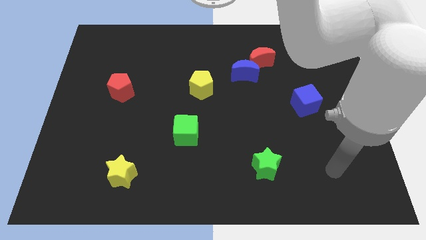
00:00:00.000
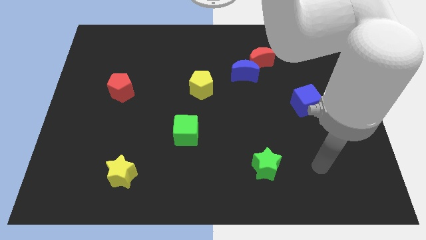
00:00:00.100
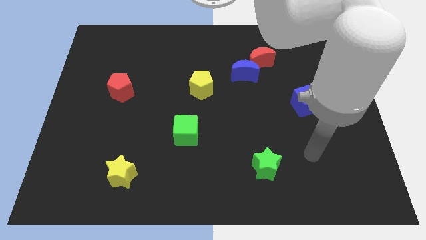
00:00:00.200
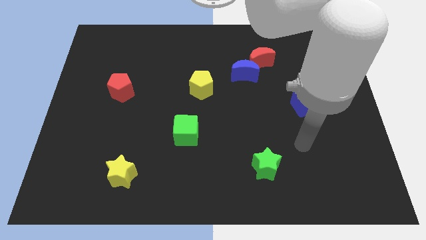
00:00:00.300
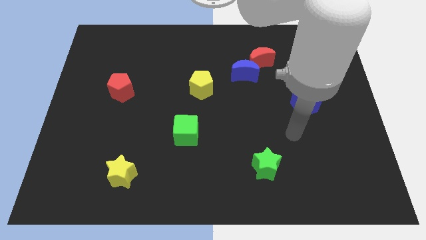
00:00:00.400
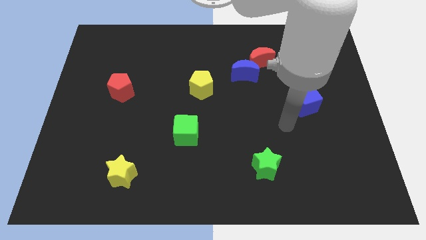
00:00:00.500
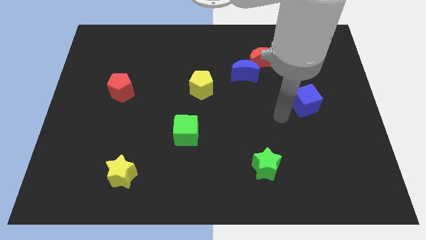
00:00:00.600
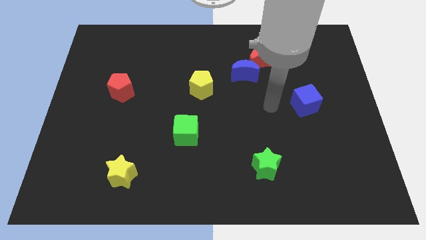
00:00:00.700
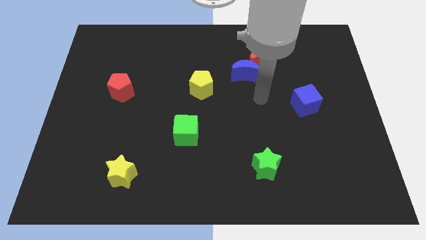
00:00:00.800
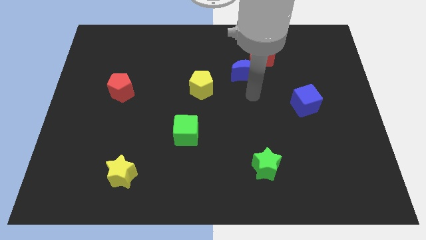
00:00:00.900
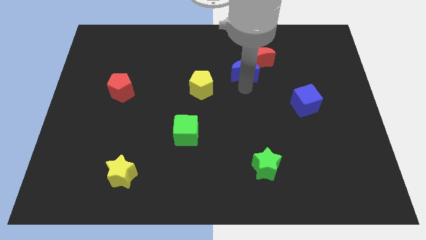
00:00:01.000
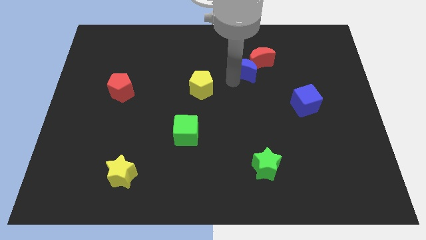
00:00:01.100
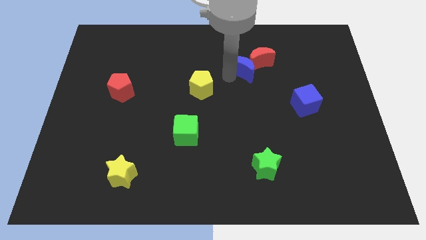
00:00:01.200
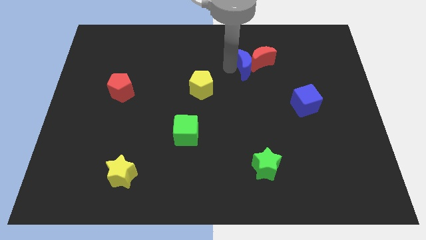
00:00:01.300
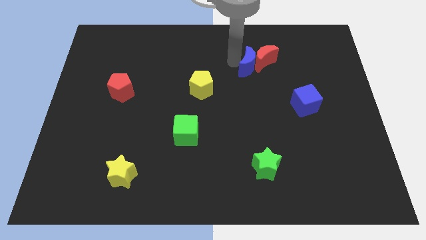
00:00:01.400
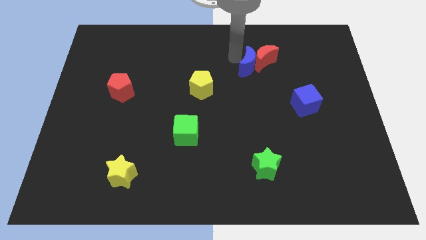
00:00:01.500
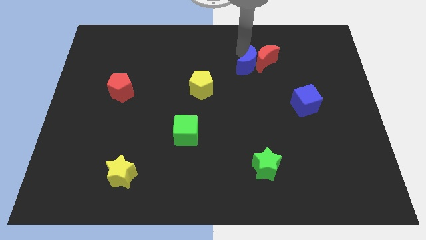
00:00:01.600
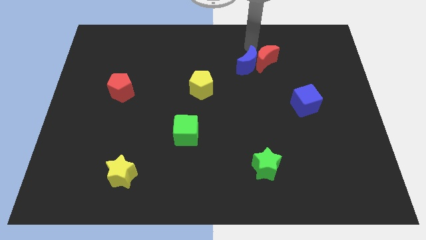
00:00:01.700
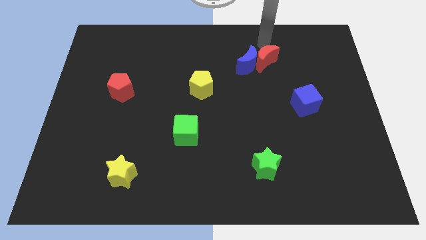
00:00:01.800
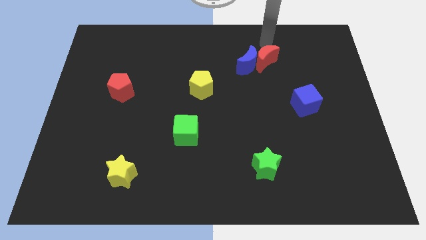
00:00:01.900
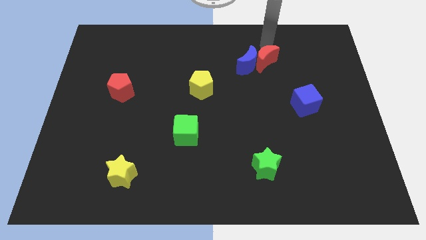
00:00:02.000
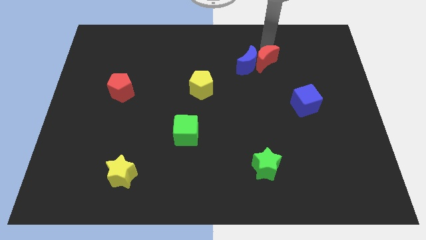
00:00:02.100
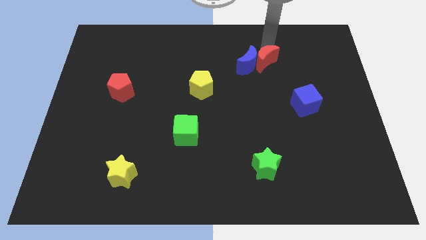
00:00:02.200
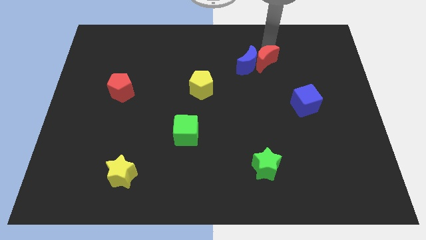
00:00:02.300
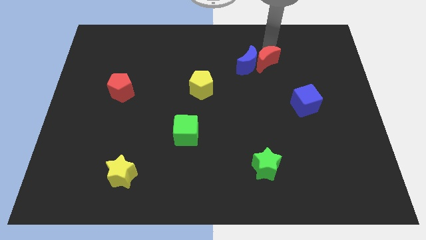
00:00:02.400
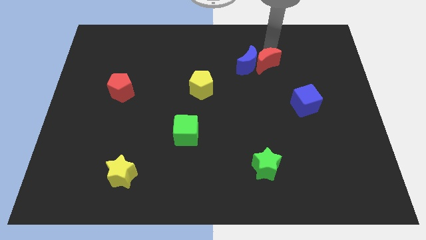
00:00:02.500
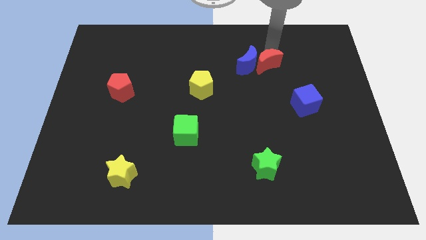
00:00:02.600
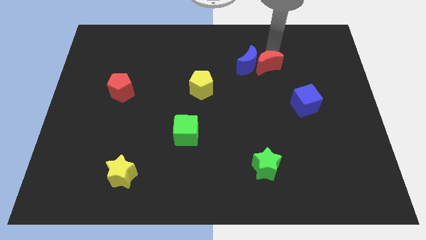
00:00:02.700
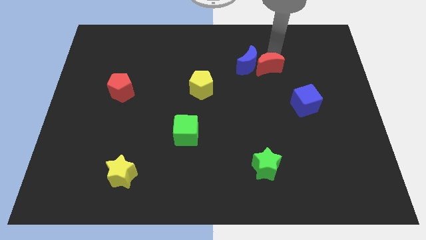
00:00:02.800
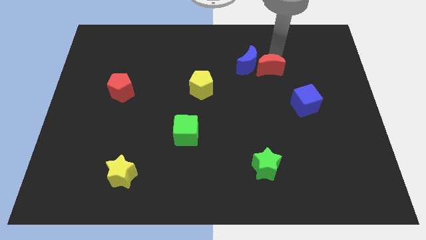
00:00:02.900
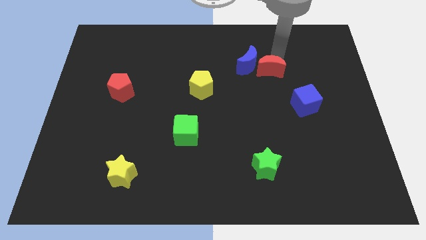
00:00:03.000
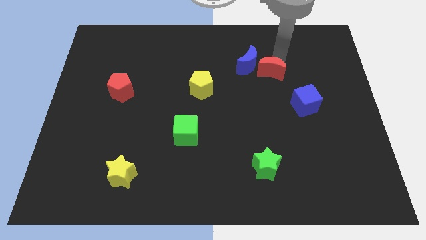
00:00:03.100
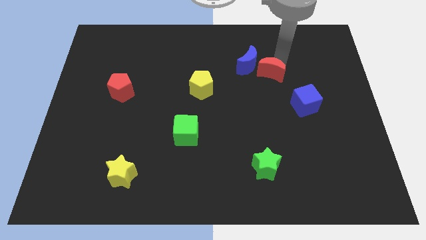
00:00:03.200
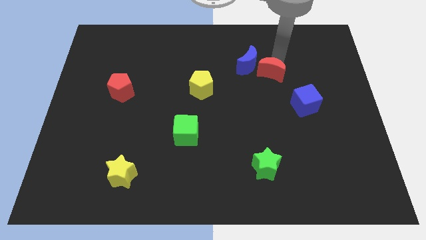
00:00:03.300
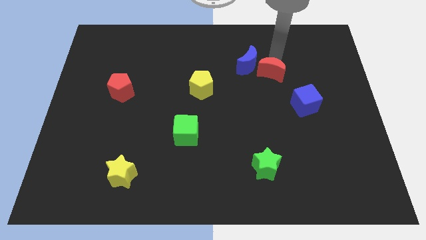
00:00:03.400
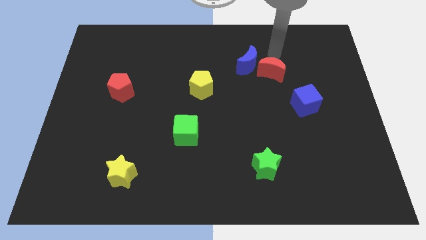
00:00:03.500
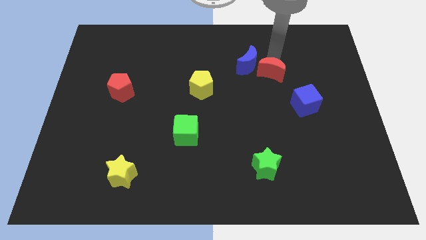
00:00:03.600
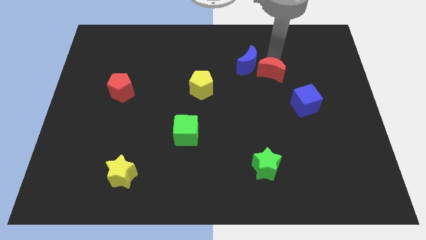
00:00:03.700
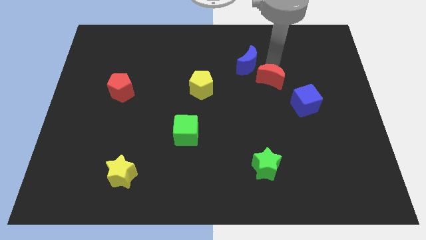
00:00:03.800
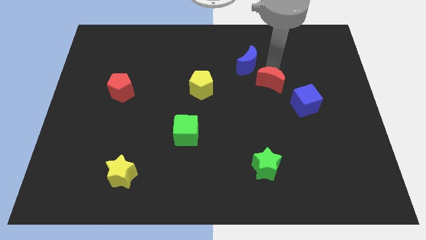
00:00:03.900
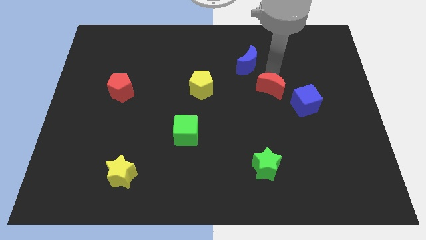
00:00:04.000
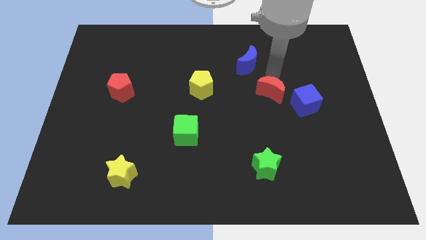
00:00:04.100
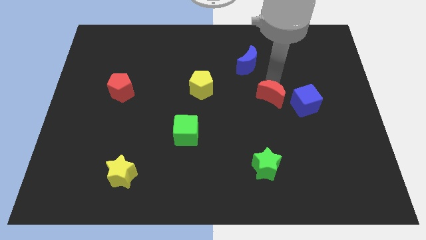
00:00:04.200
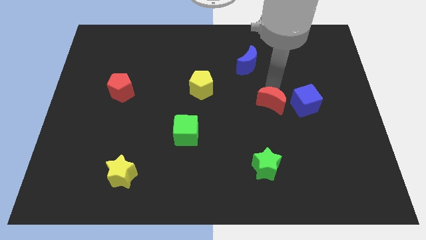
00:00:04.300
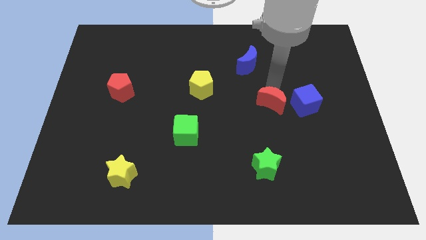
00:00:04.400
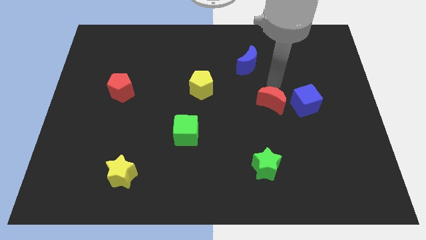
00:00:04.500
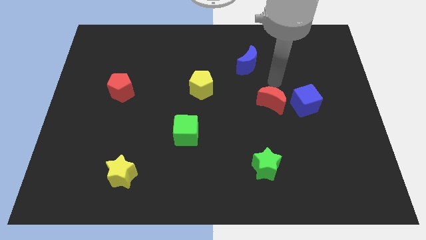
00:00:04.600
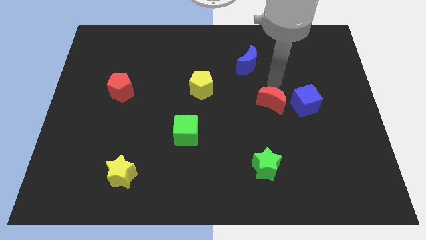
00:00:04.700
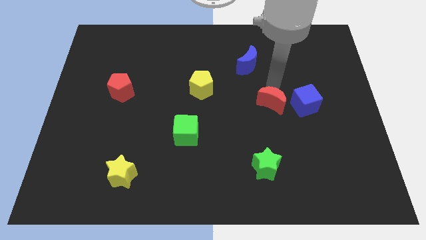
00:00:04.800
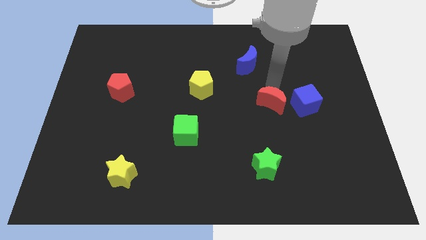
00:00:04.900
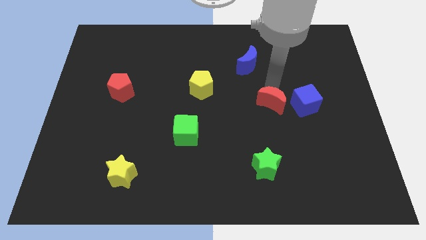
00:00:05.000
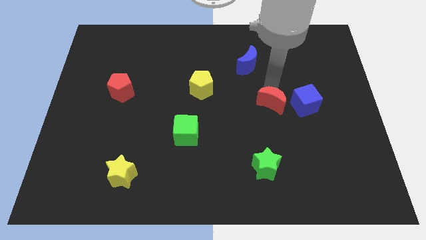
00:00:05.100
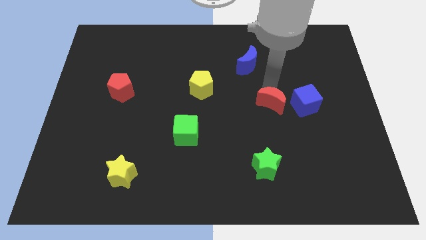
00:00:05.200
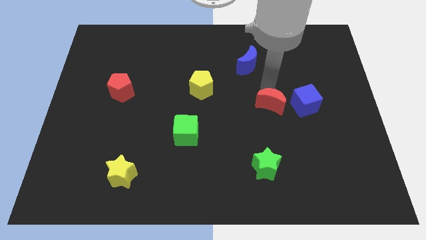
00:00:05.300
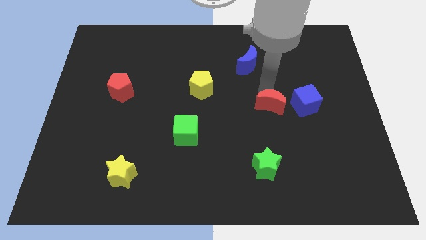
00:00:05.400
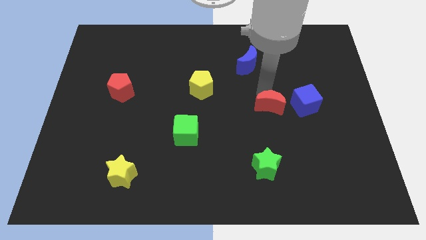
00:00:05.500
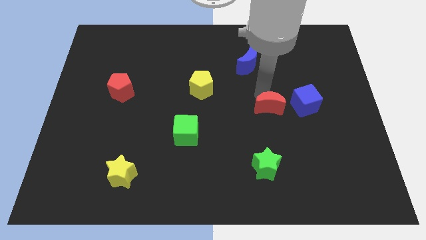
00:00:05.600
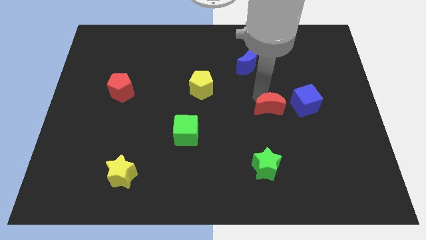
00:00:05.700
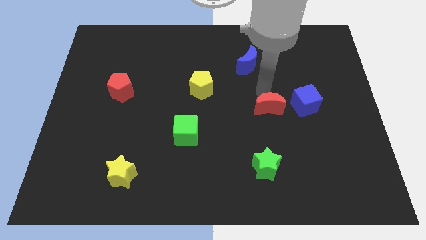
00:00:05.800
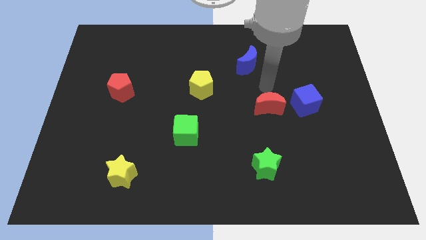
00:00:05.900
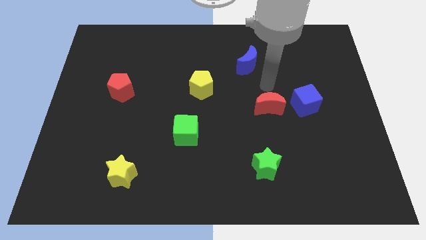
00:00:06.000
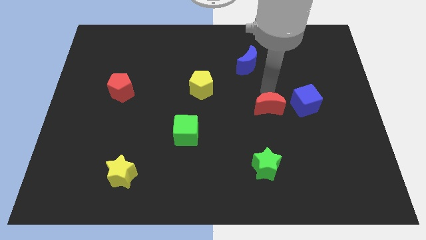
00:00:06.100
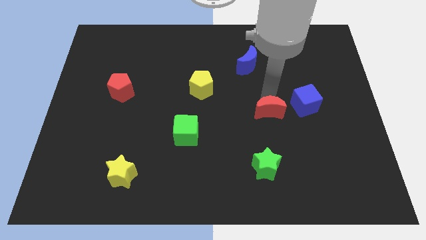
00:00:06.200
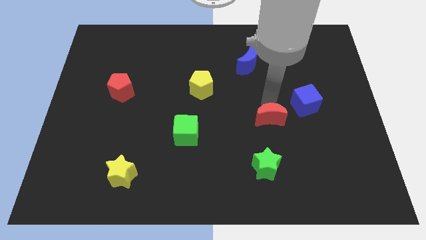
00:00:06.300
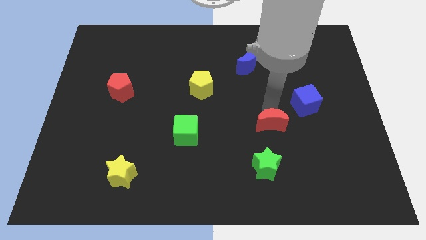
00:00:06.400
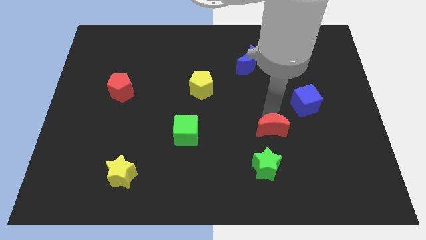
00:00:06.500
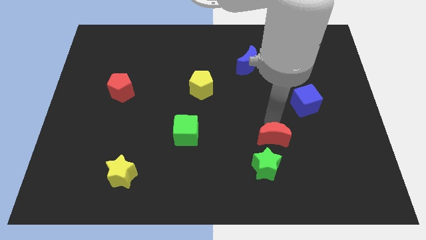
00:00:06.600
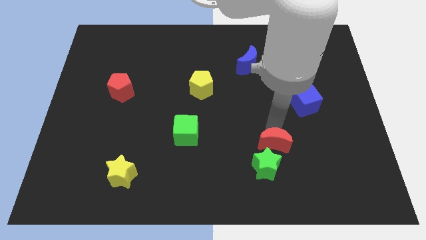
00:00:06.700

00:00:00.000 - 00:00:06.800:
put the red moon towards the green star
